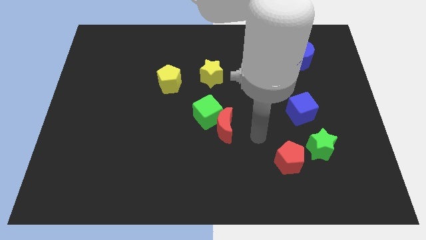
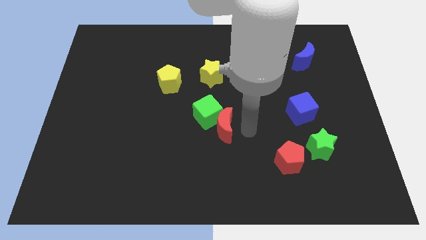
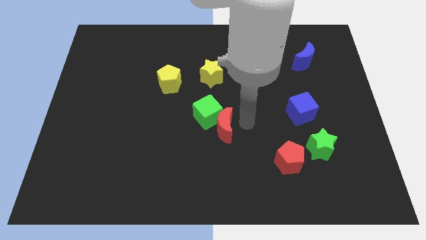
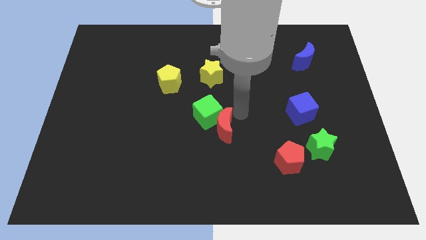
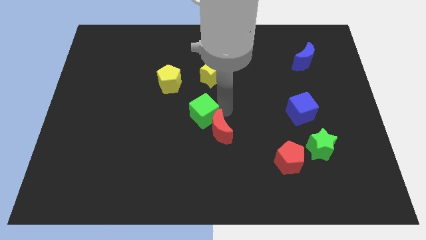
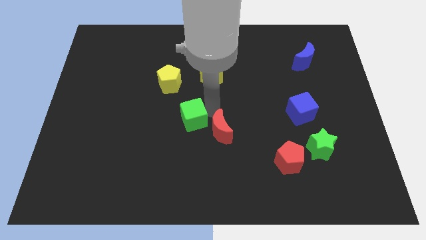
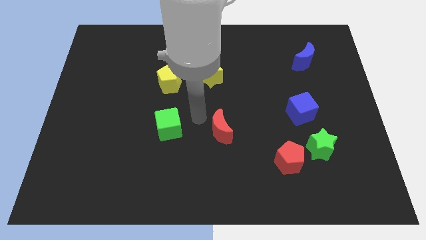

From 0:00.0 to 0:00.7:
move the red moon away from the green cube

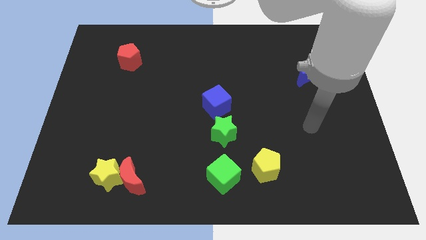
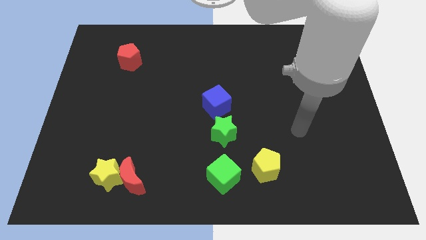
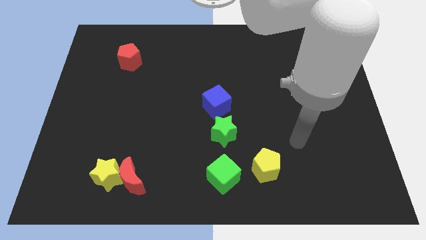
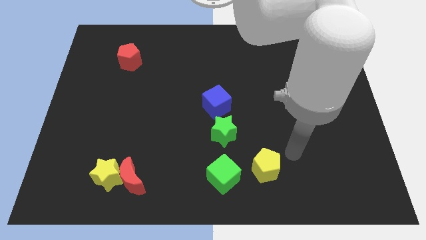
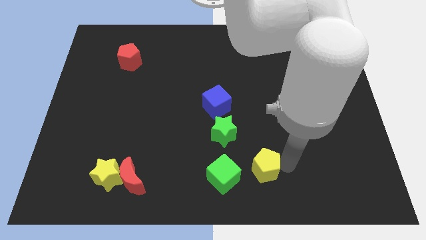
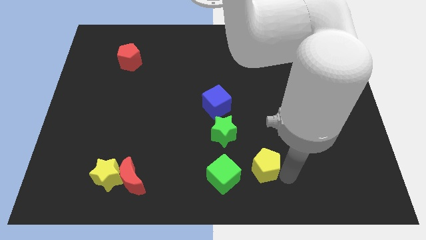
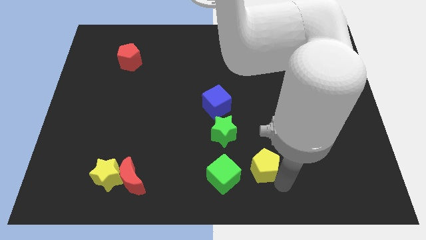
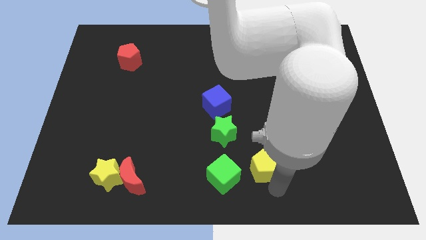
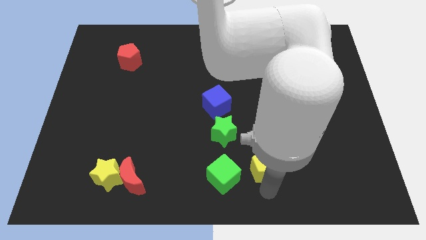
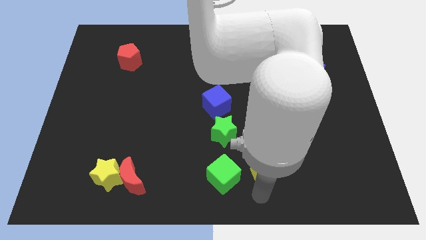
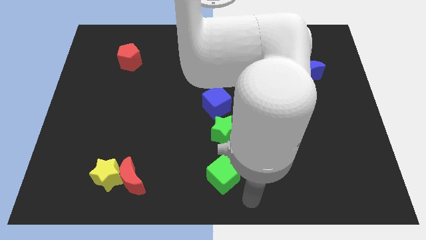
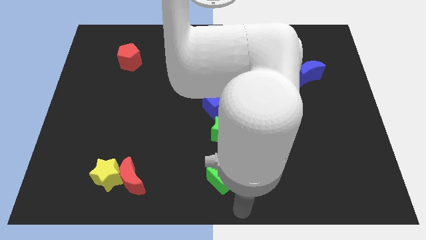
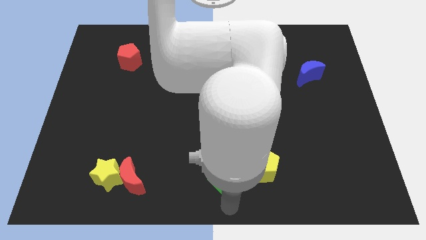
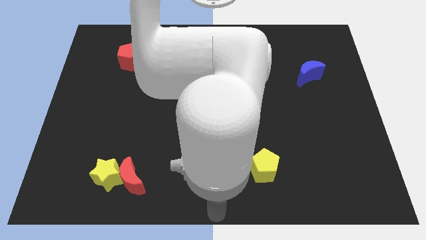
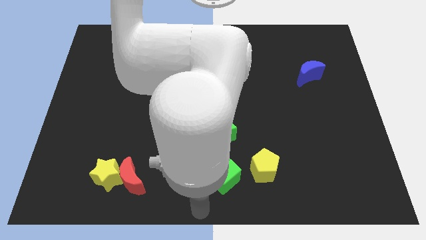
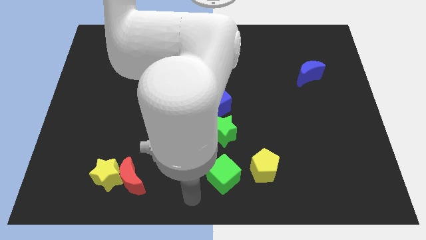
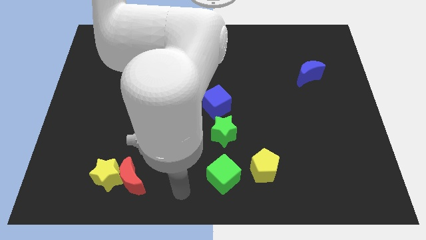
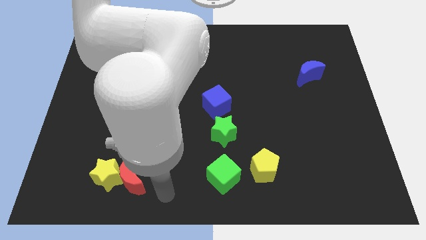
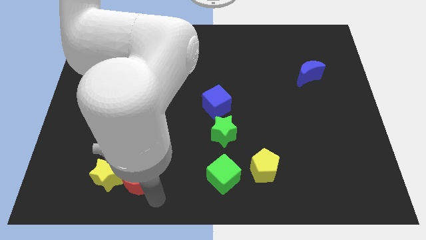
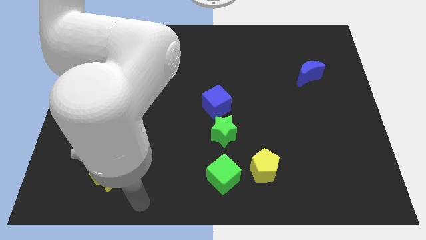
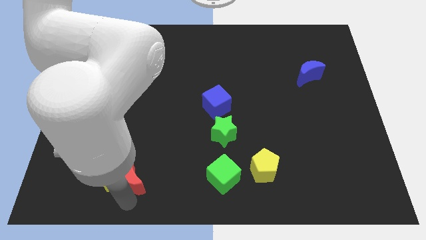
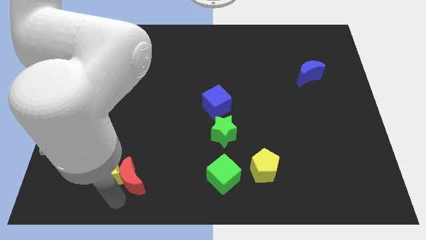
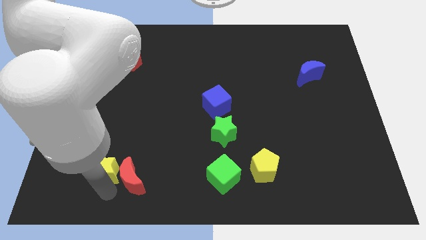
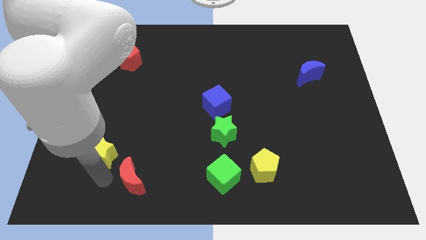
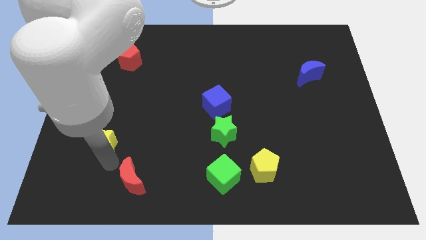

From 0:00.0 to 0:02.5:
move the red moon away from the yellow star

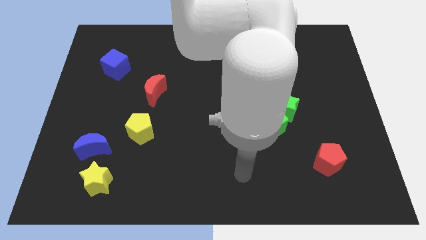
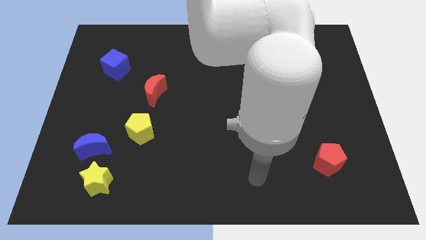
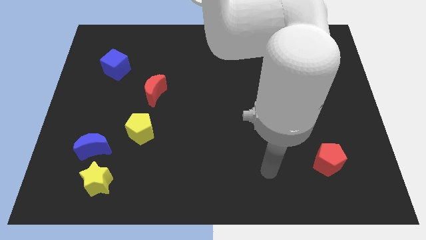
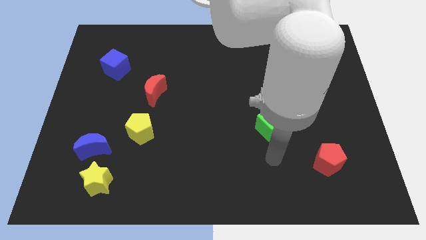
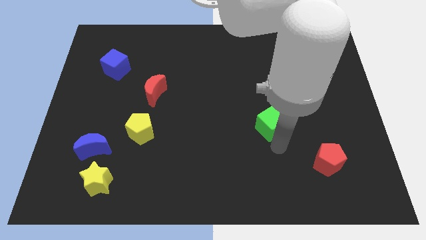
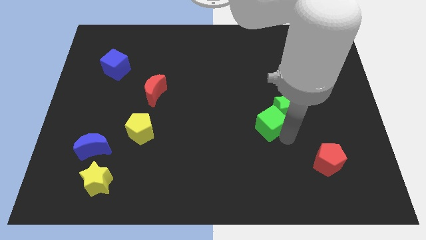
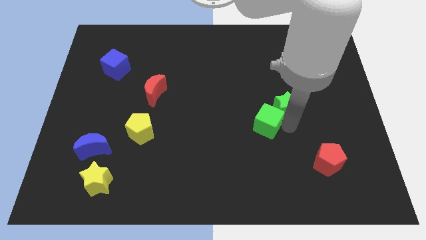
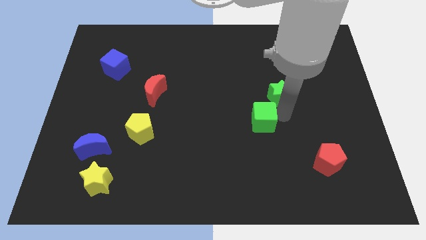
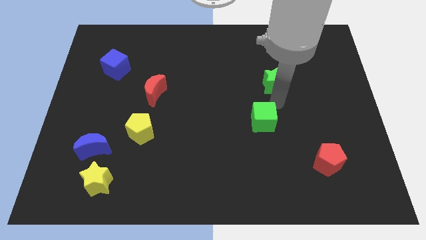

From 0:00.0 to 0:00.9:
move the green cube away from the green star

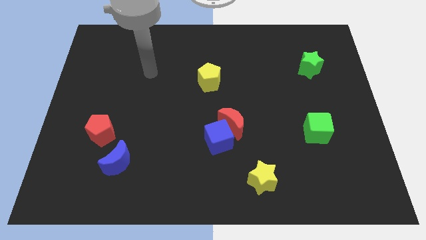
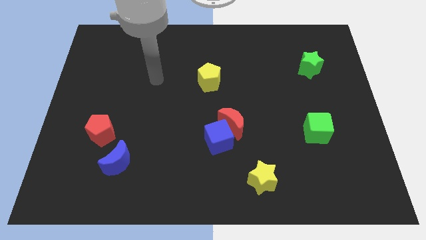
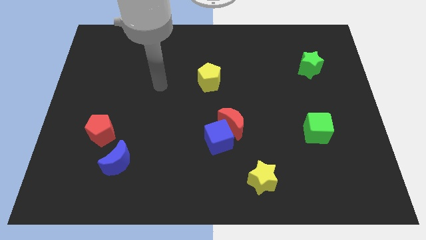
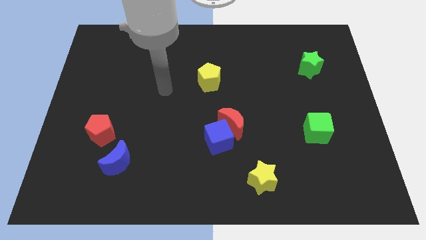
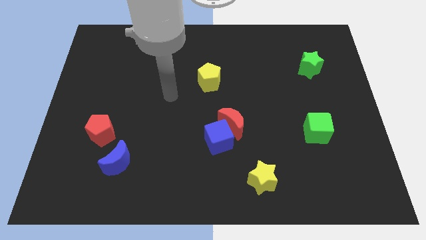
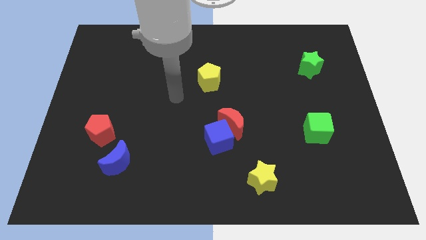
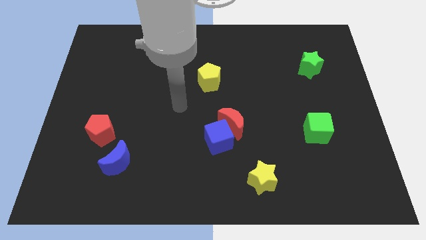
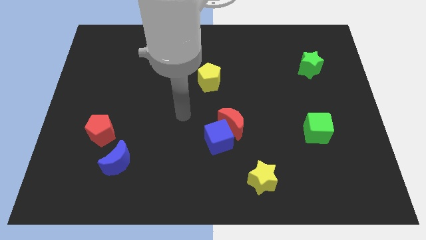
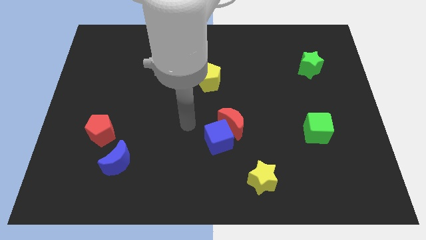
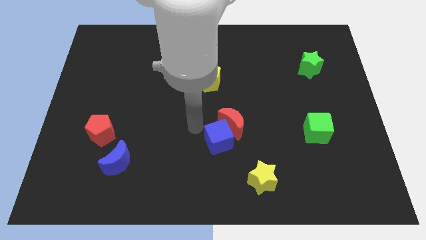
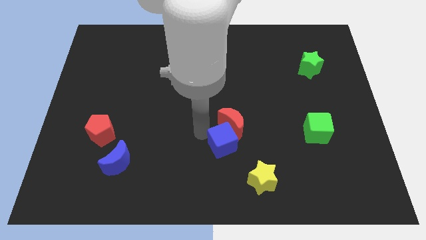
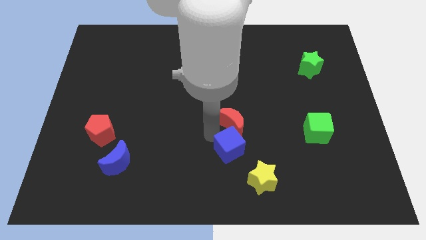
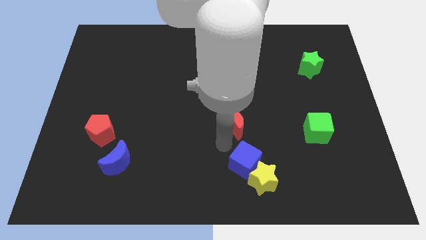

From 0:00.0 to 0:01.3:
move the red moon away from the blue cube

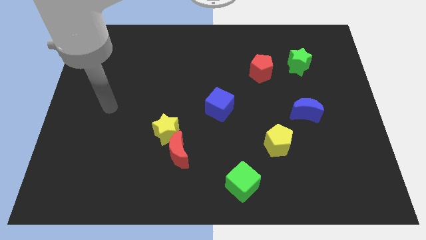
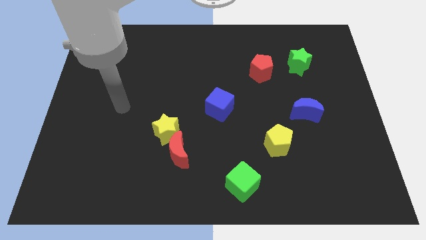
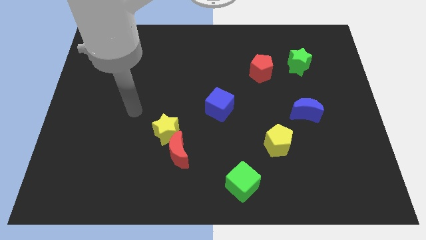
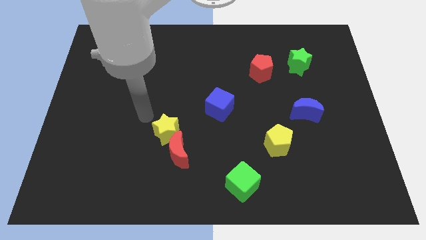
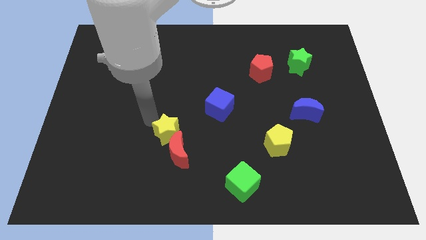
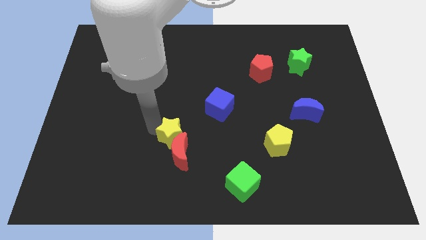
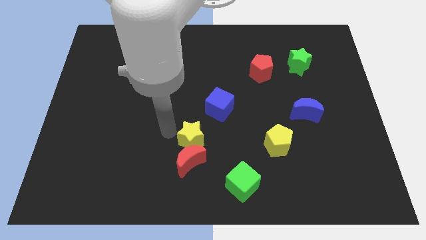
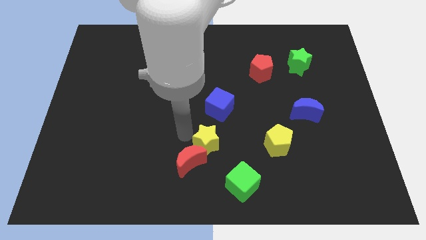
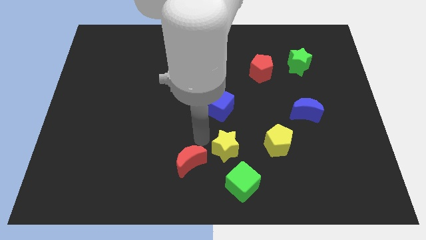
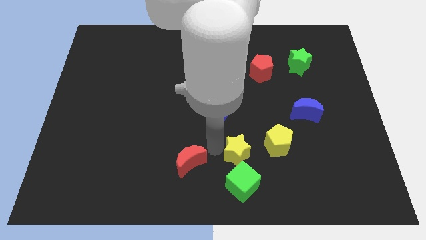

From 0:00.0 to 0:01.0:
separate the red moon from the yellow star

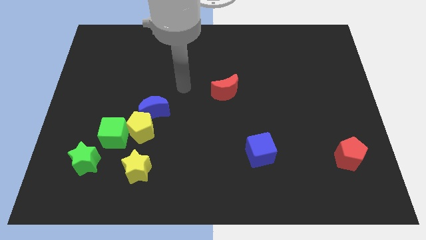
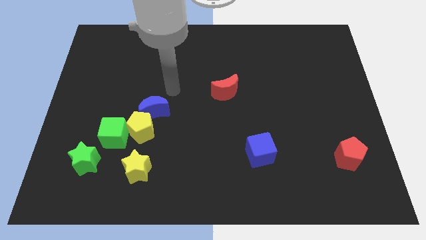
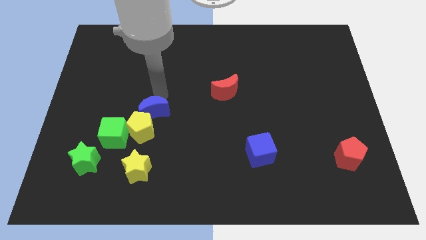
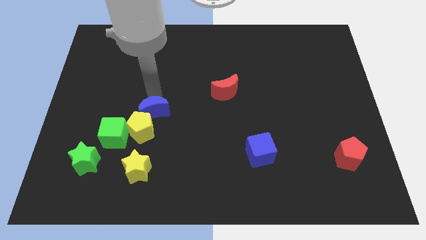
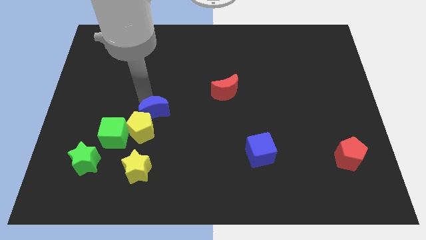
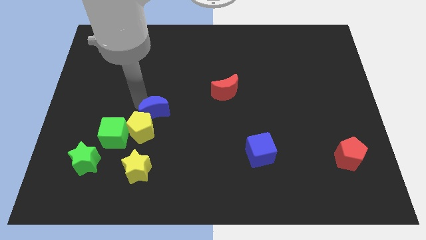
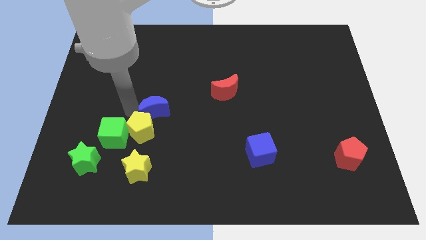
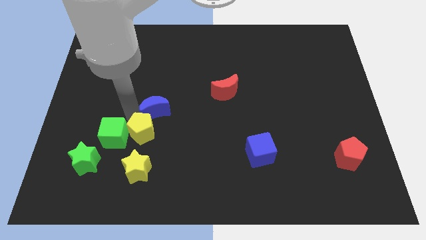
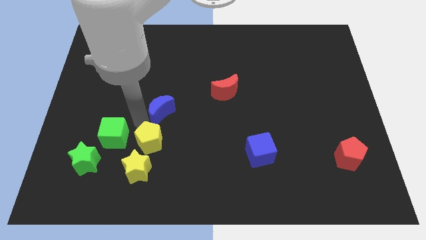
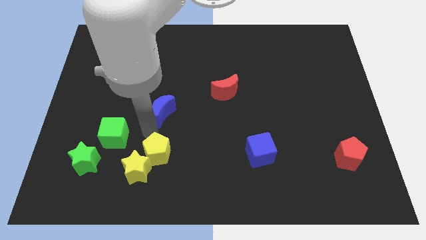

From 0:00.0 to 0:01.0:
separate the blue moon from the yellow pentagon

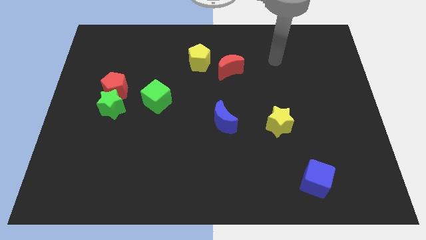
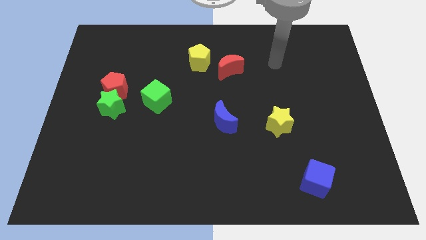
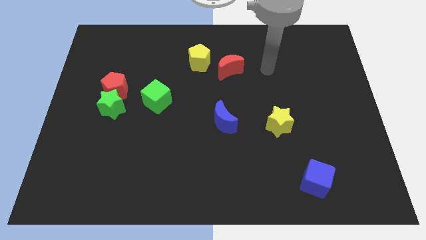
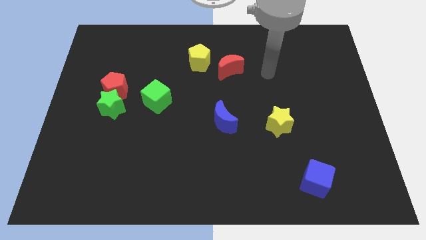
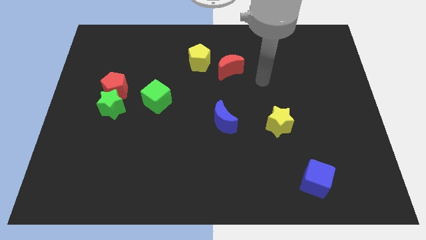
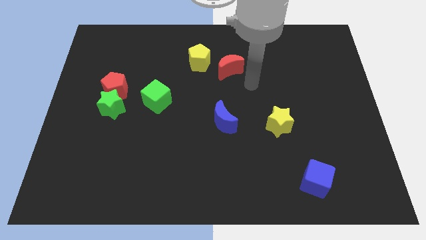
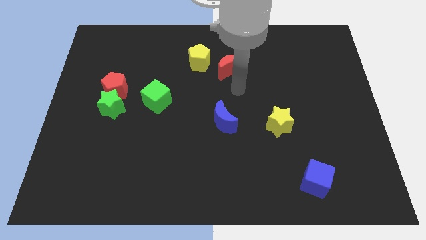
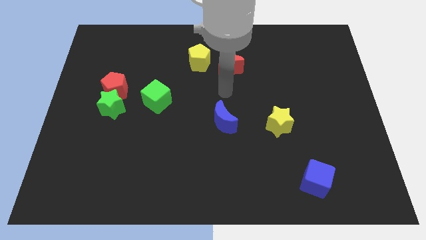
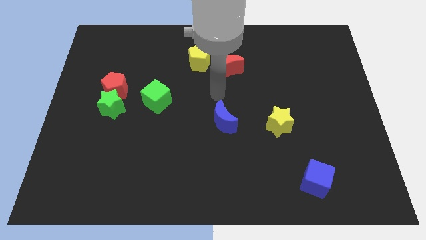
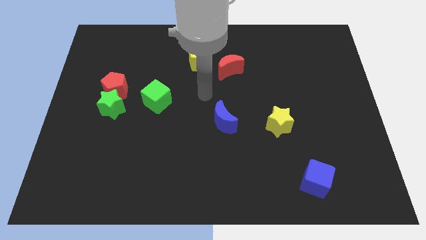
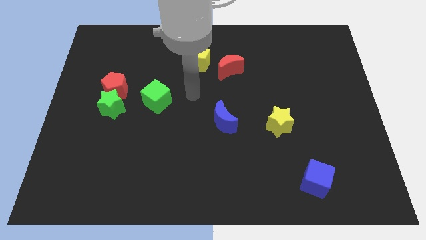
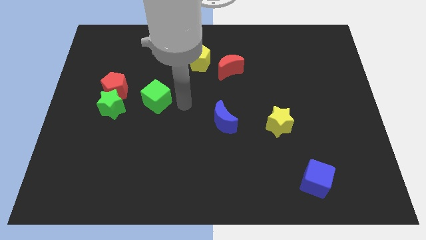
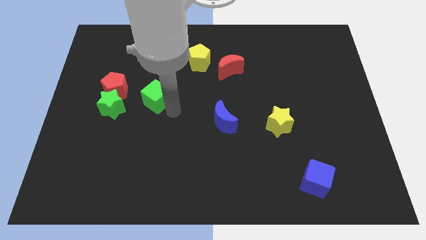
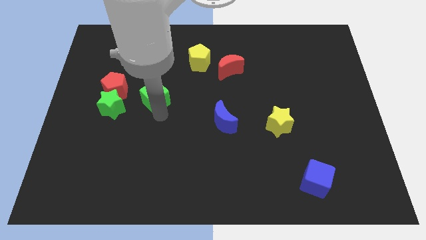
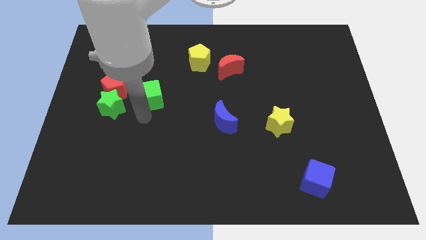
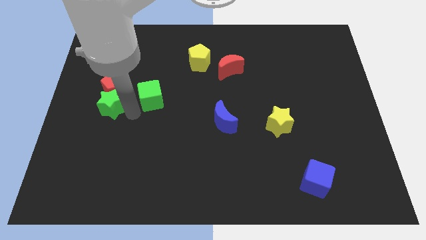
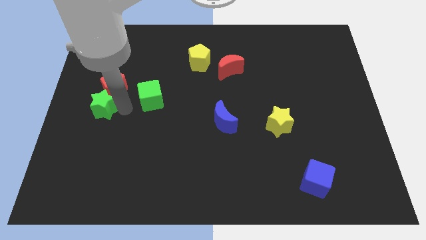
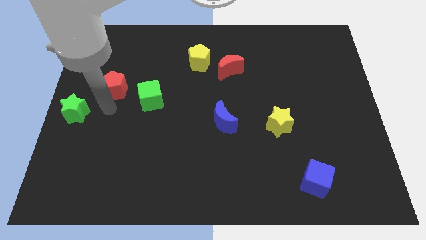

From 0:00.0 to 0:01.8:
pull the red pentagon apart from the green star
